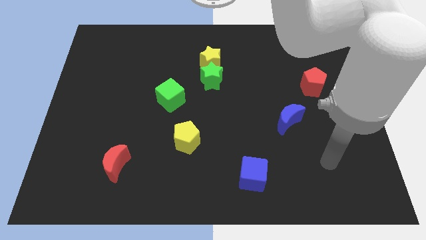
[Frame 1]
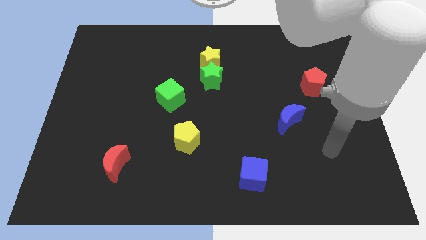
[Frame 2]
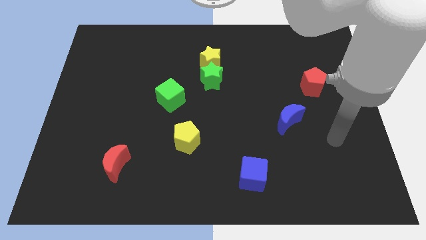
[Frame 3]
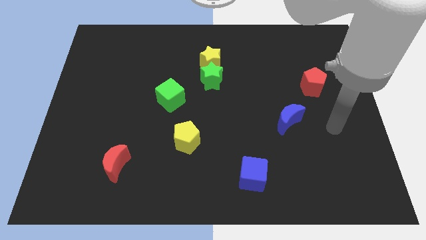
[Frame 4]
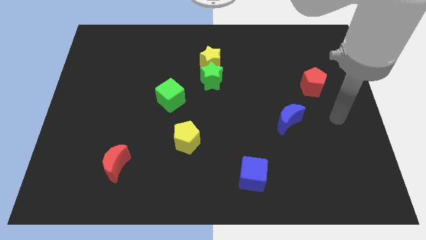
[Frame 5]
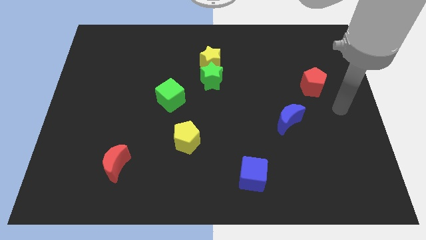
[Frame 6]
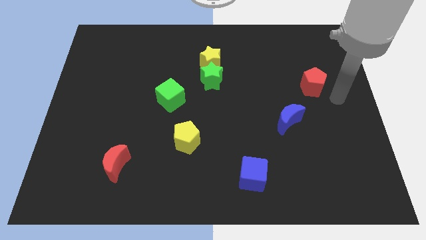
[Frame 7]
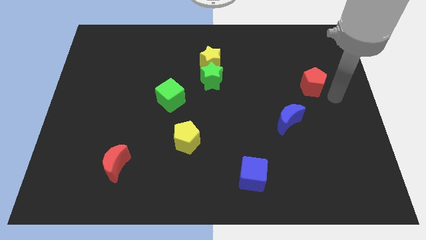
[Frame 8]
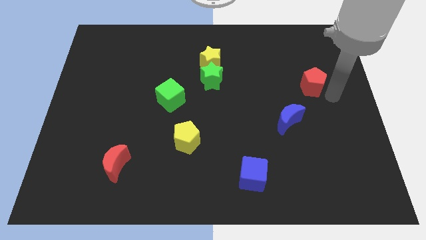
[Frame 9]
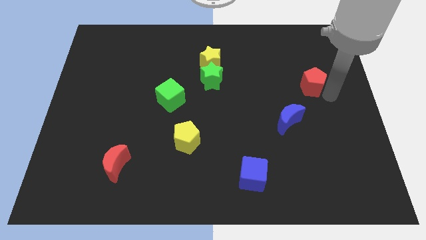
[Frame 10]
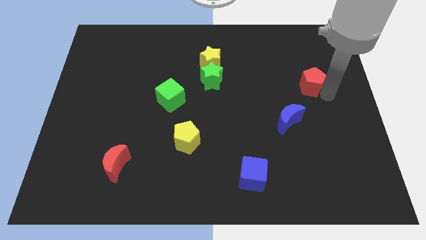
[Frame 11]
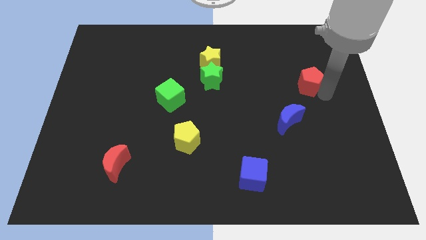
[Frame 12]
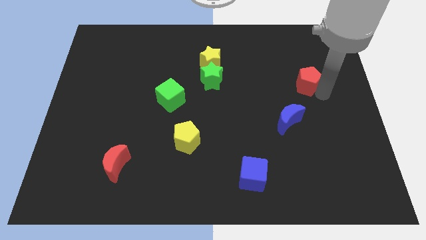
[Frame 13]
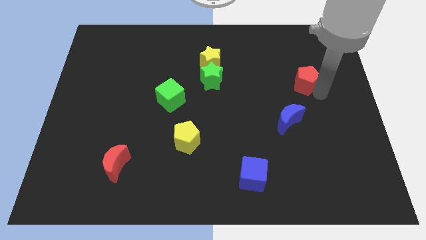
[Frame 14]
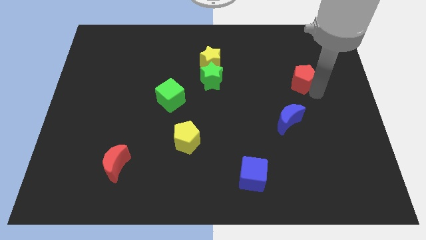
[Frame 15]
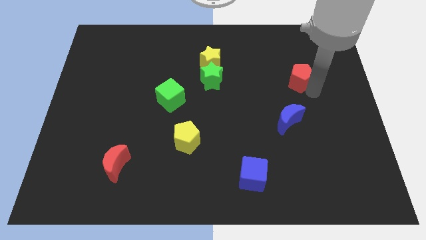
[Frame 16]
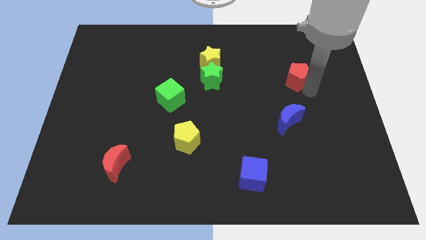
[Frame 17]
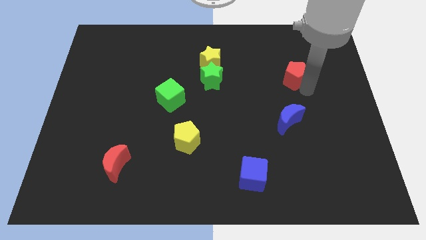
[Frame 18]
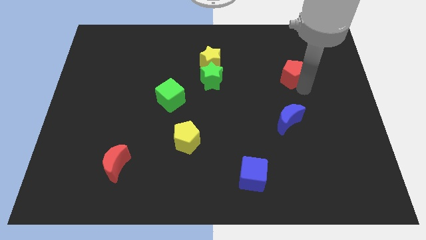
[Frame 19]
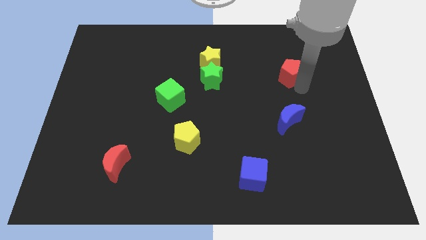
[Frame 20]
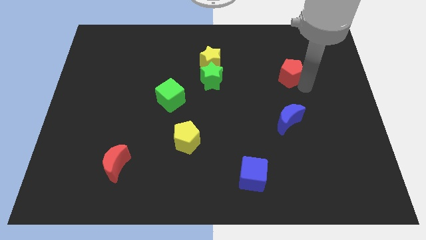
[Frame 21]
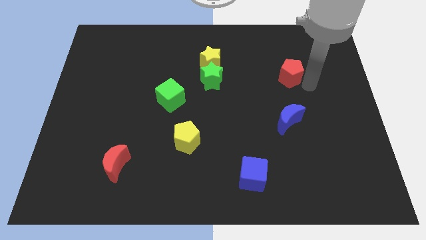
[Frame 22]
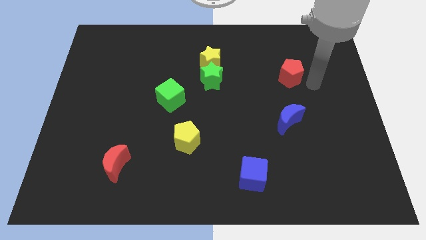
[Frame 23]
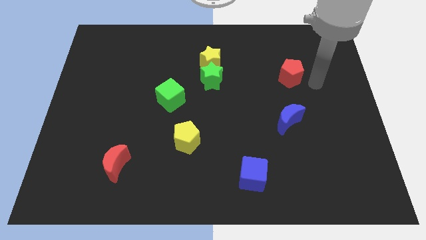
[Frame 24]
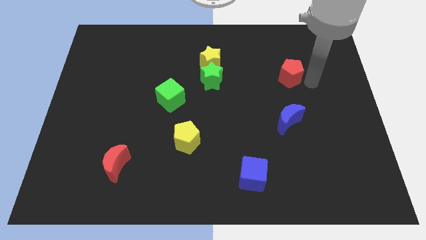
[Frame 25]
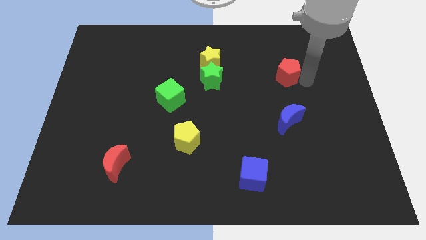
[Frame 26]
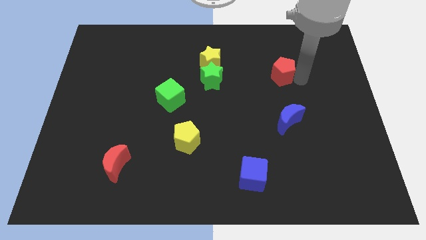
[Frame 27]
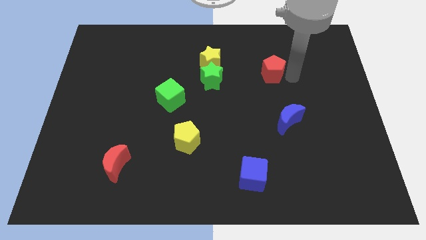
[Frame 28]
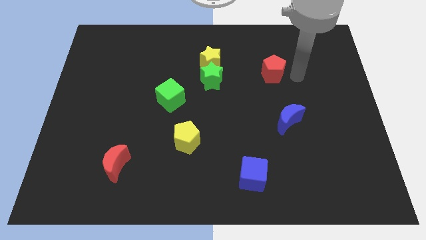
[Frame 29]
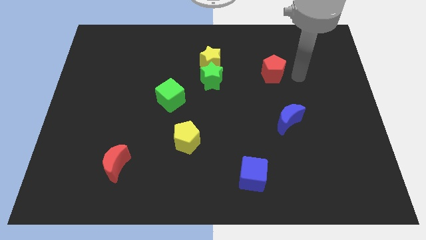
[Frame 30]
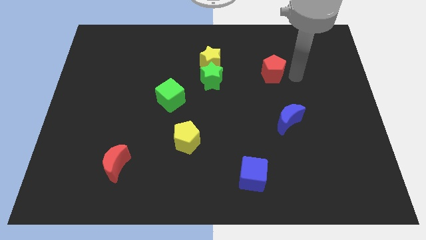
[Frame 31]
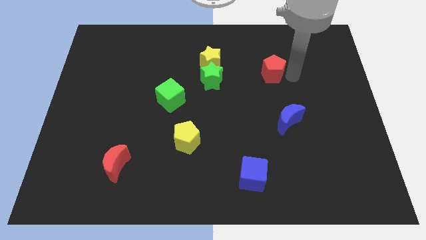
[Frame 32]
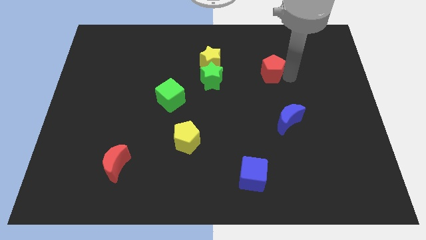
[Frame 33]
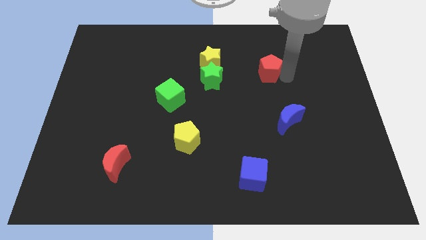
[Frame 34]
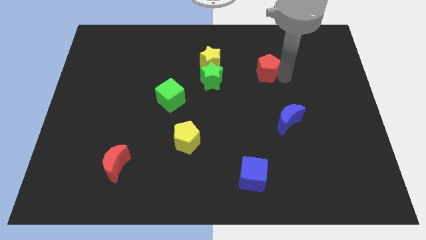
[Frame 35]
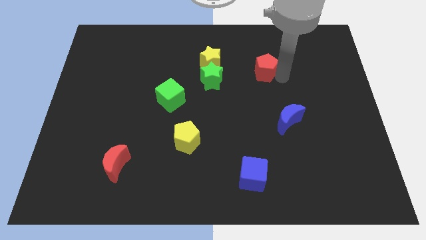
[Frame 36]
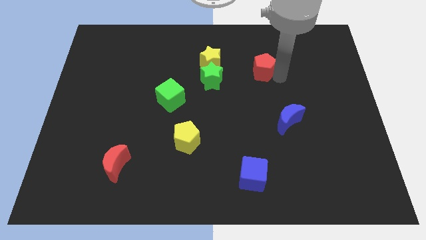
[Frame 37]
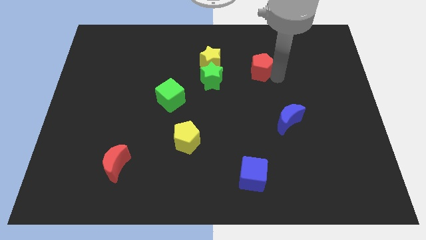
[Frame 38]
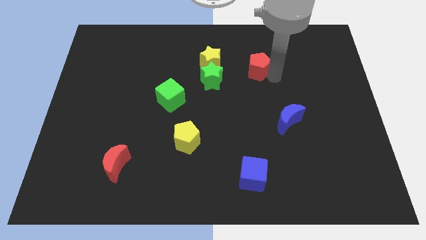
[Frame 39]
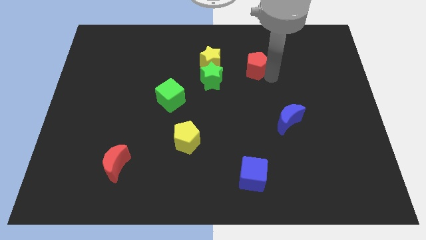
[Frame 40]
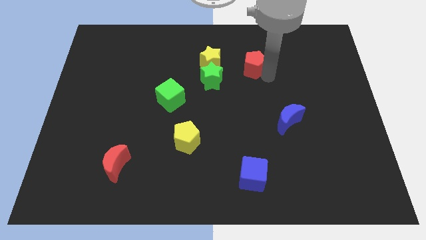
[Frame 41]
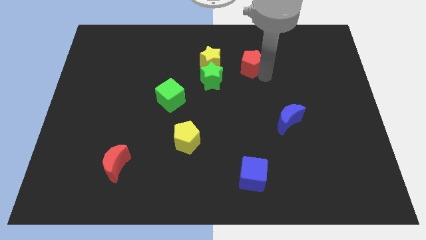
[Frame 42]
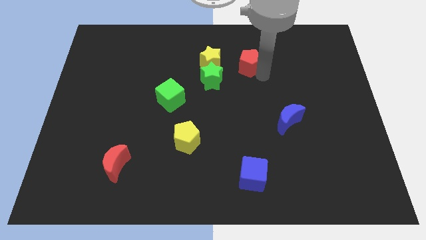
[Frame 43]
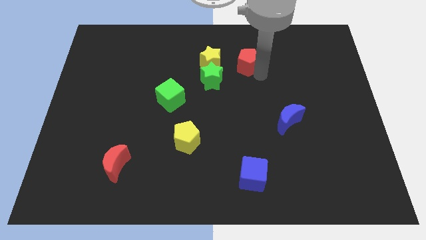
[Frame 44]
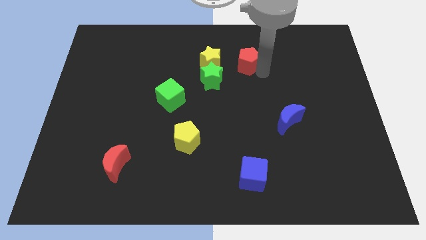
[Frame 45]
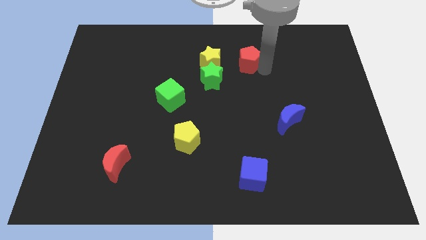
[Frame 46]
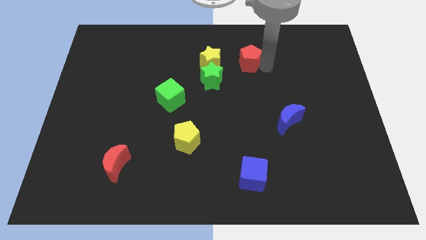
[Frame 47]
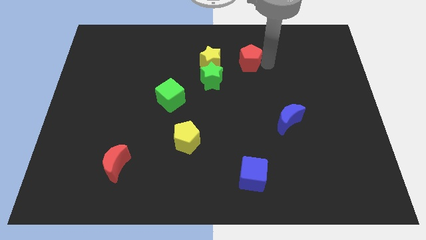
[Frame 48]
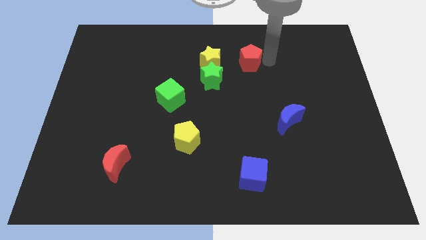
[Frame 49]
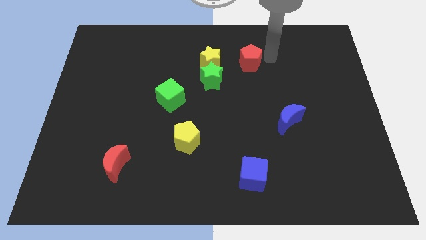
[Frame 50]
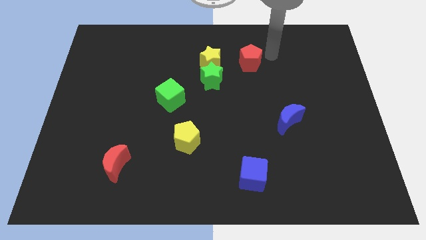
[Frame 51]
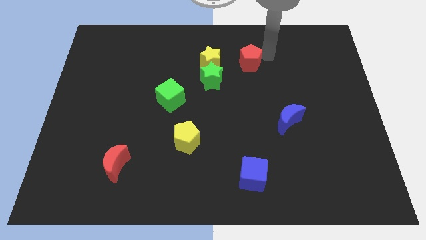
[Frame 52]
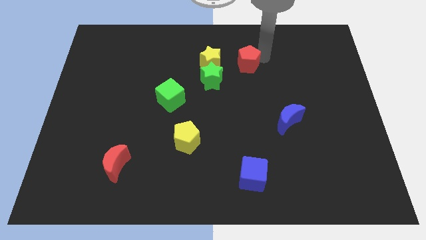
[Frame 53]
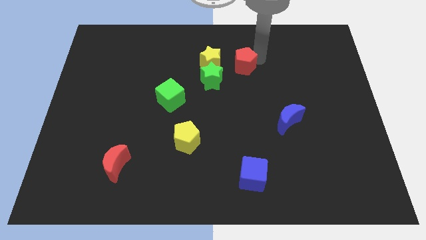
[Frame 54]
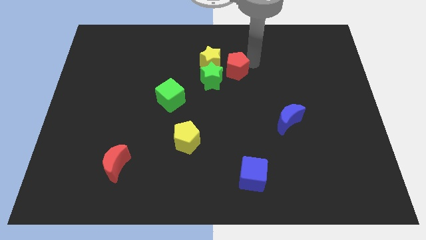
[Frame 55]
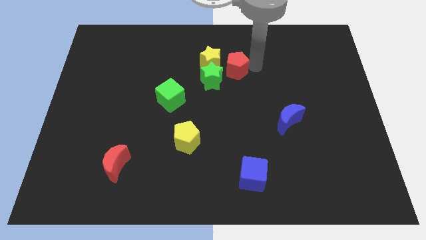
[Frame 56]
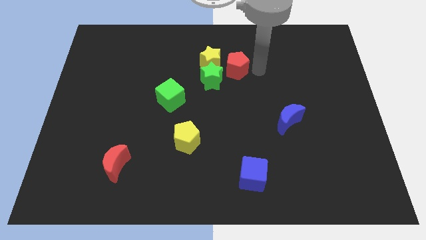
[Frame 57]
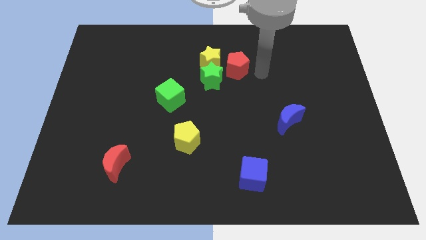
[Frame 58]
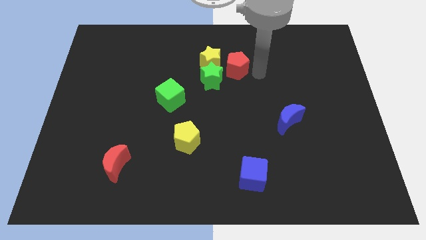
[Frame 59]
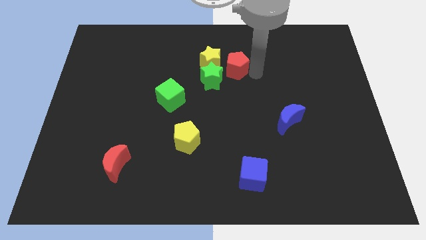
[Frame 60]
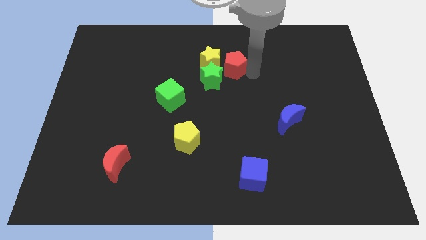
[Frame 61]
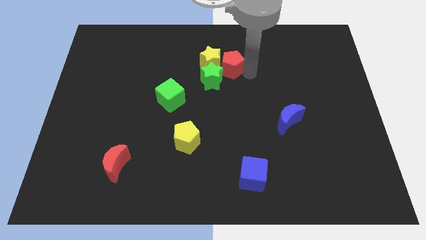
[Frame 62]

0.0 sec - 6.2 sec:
push the red pentagon to the yellow star

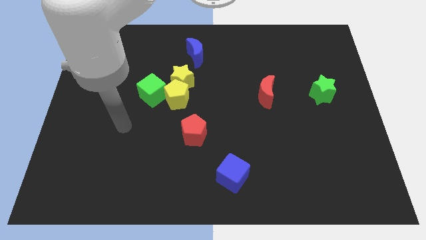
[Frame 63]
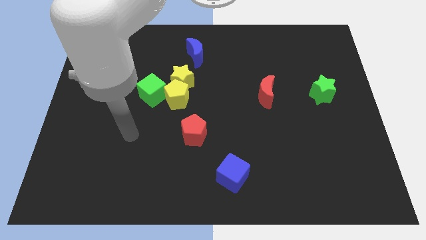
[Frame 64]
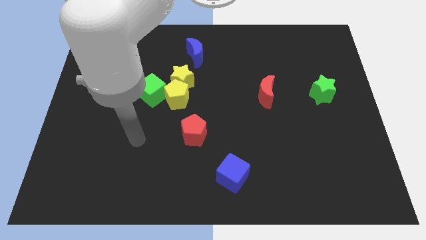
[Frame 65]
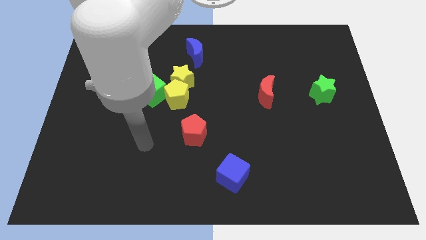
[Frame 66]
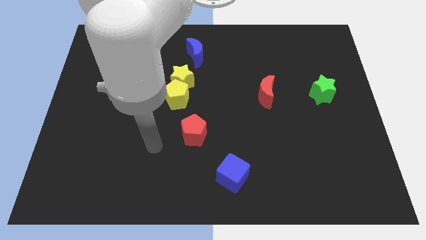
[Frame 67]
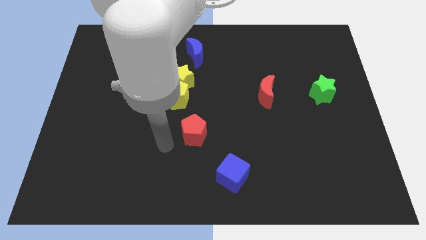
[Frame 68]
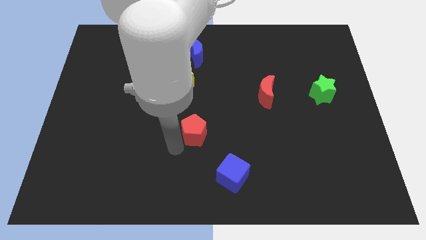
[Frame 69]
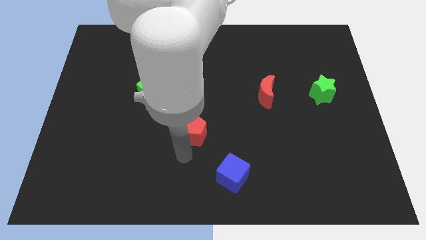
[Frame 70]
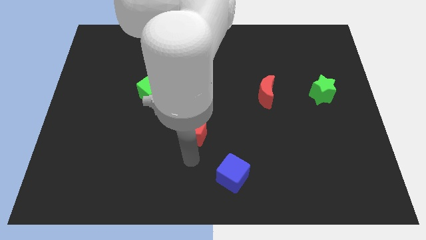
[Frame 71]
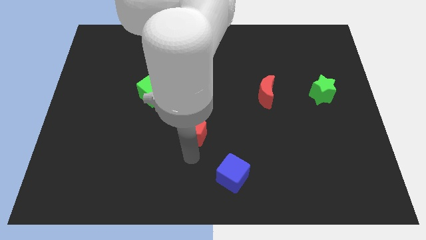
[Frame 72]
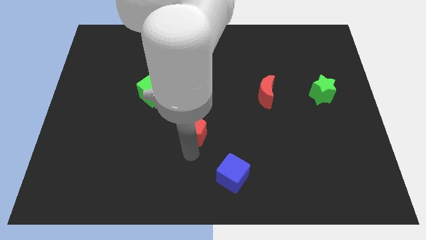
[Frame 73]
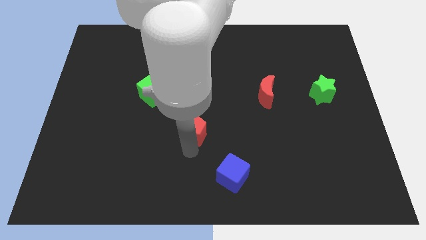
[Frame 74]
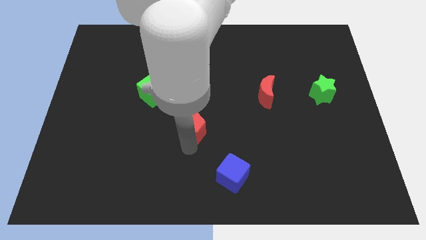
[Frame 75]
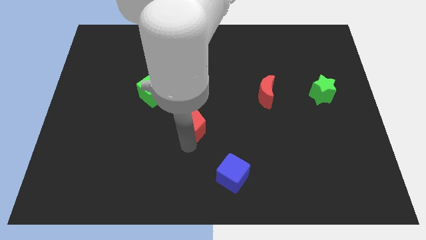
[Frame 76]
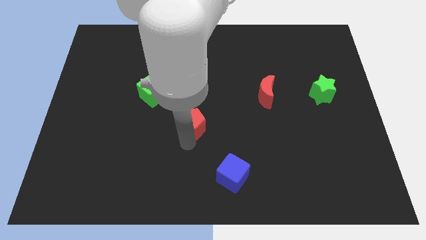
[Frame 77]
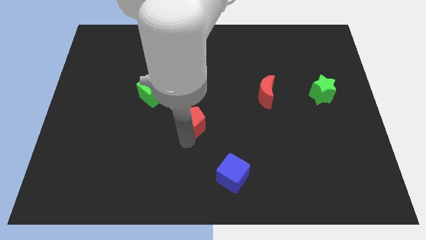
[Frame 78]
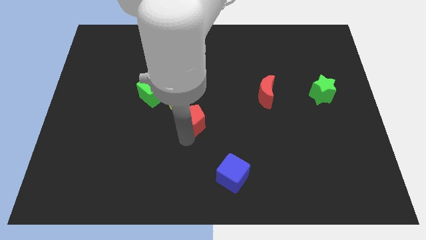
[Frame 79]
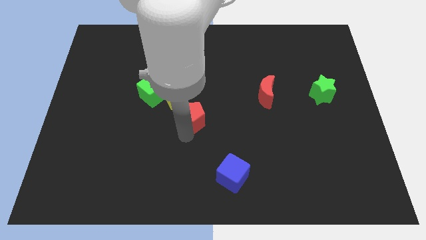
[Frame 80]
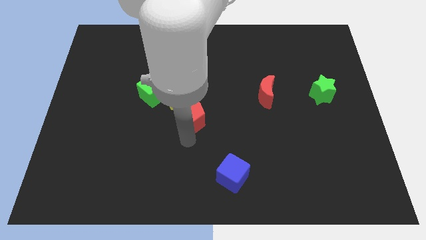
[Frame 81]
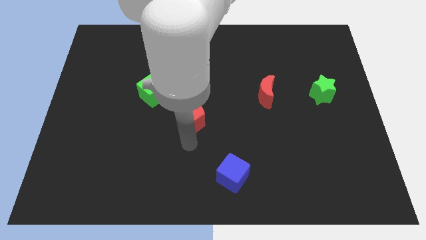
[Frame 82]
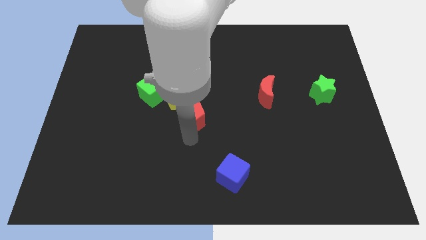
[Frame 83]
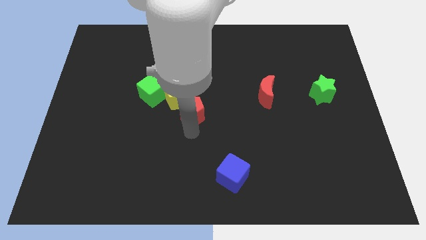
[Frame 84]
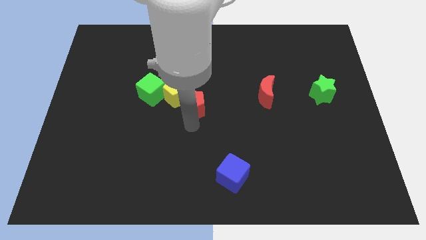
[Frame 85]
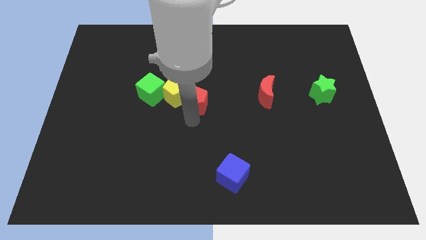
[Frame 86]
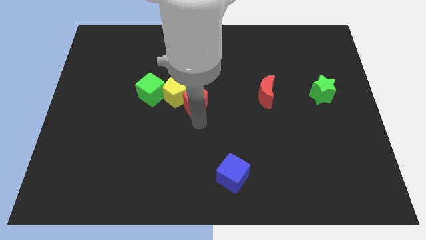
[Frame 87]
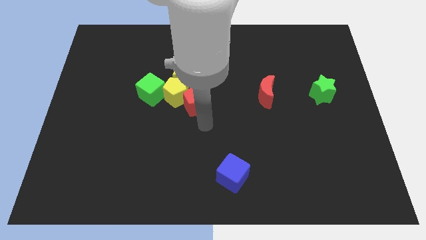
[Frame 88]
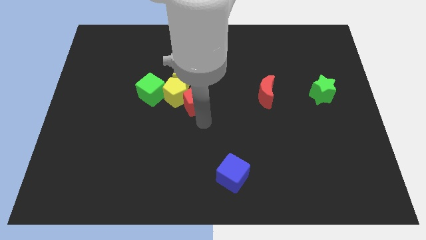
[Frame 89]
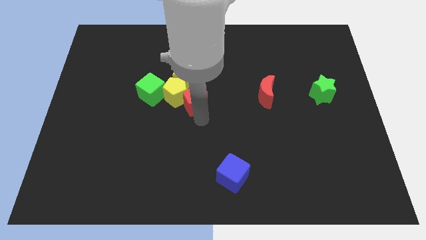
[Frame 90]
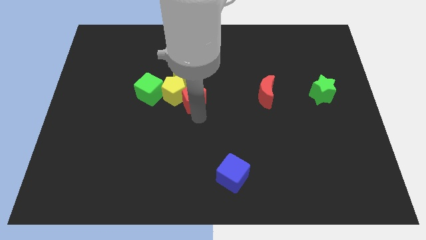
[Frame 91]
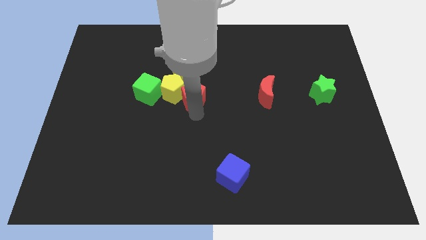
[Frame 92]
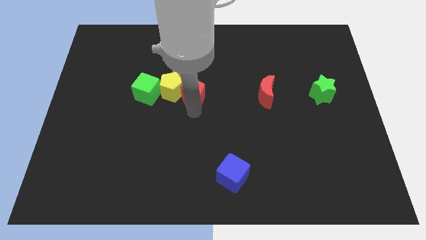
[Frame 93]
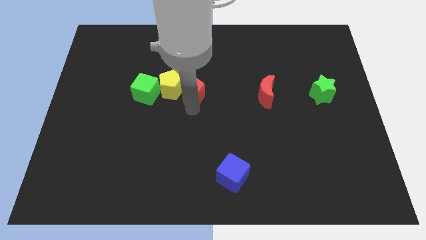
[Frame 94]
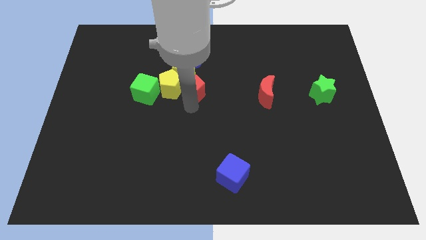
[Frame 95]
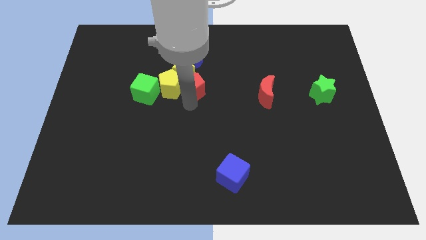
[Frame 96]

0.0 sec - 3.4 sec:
slide the red pentagon to the yellow star
